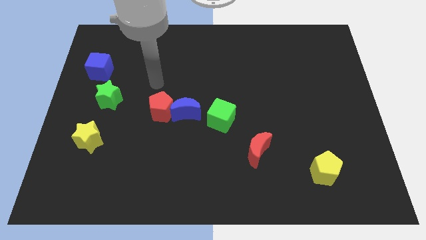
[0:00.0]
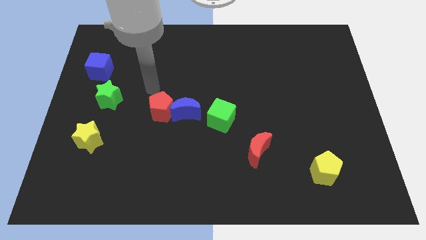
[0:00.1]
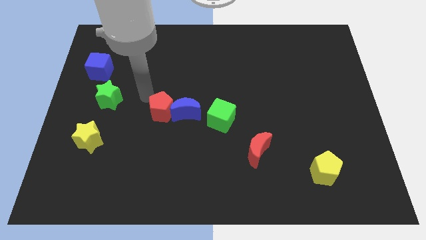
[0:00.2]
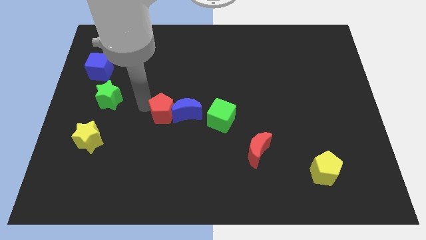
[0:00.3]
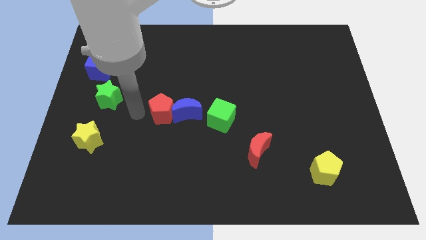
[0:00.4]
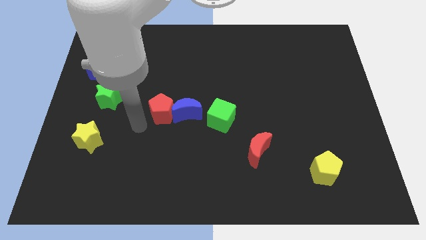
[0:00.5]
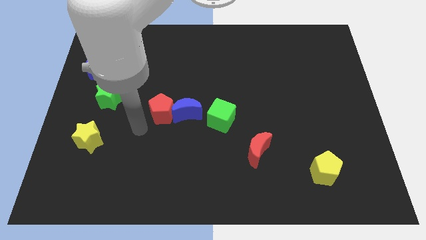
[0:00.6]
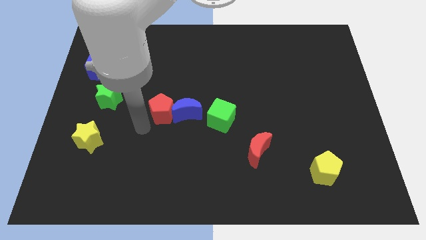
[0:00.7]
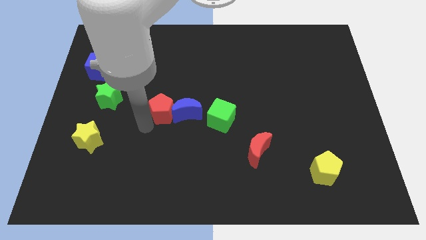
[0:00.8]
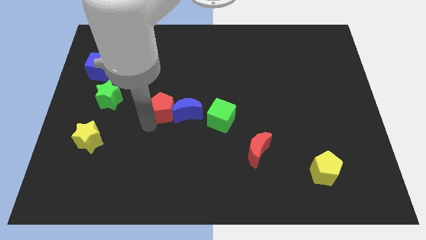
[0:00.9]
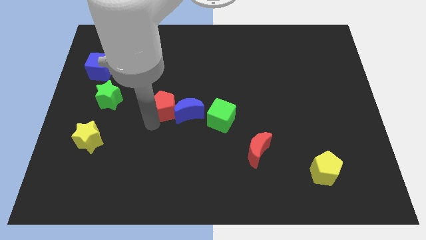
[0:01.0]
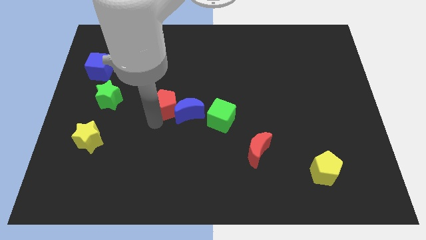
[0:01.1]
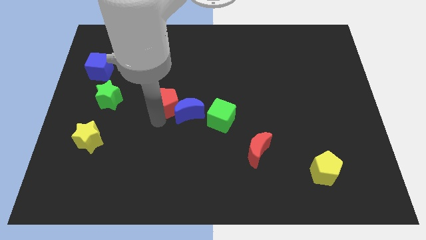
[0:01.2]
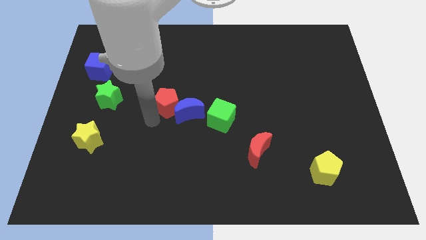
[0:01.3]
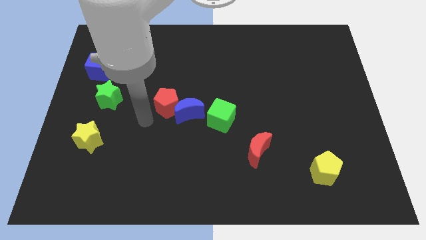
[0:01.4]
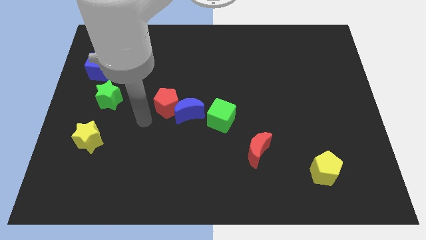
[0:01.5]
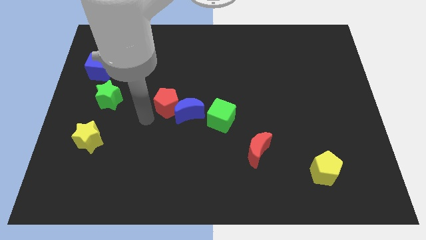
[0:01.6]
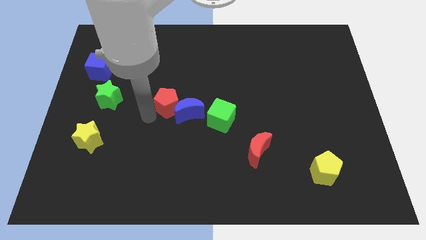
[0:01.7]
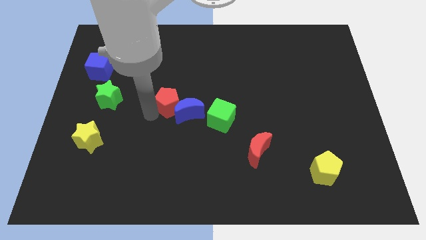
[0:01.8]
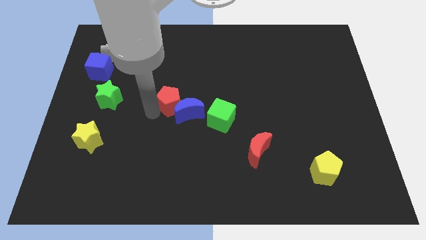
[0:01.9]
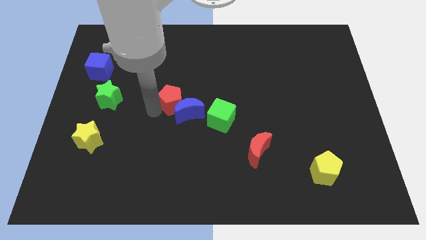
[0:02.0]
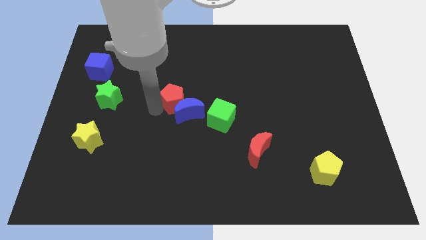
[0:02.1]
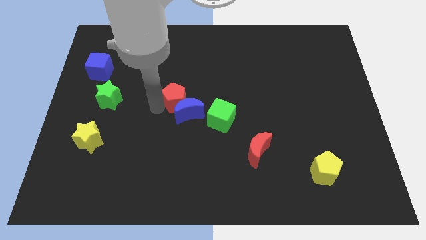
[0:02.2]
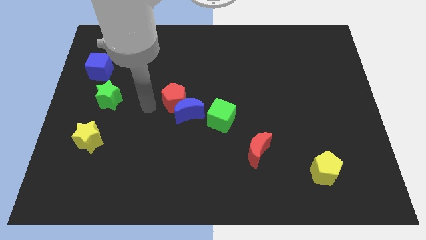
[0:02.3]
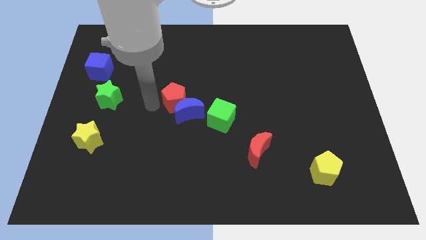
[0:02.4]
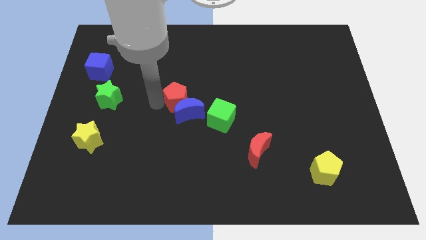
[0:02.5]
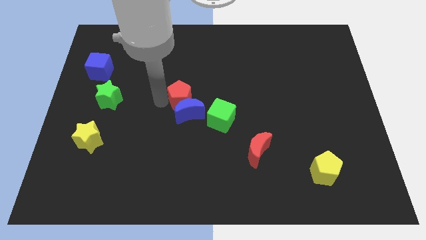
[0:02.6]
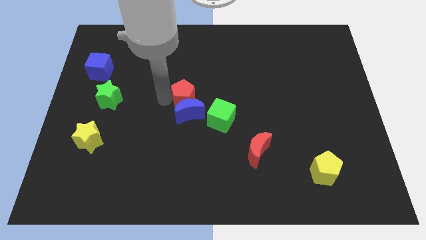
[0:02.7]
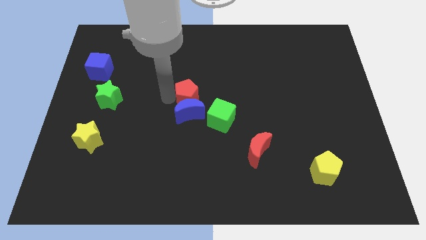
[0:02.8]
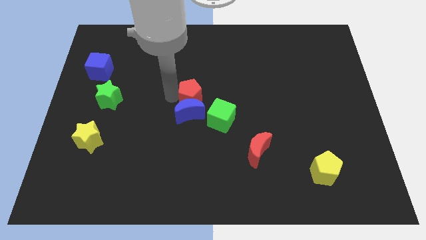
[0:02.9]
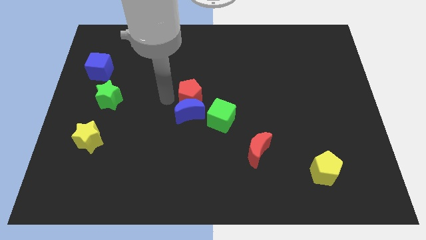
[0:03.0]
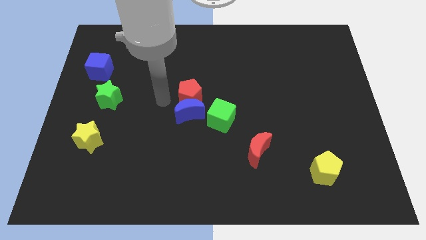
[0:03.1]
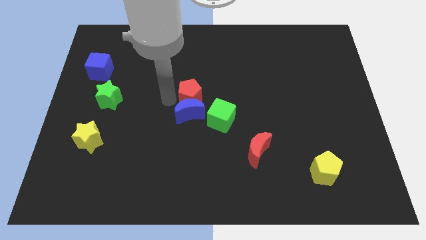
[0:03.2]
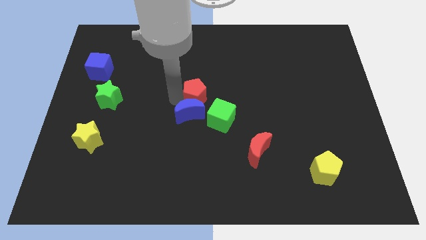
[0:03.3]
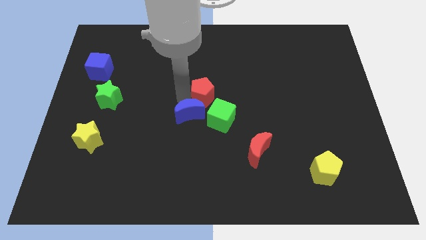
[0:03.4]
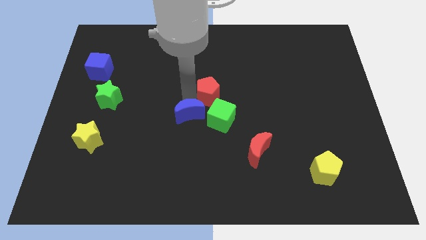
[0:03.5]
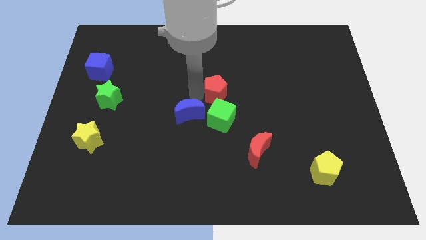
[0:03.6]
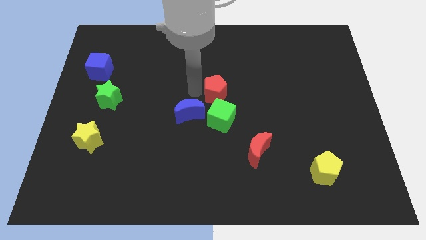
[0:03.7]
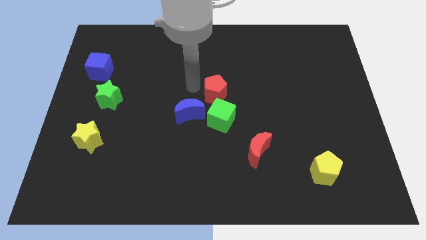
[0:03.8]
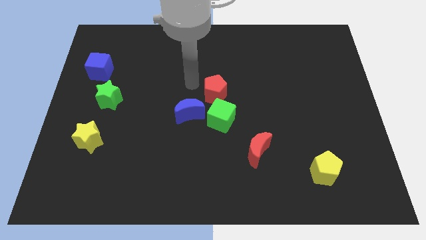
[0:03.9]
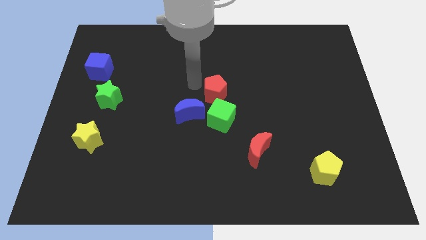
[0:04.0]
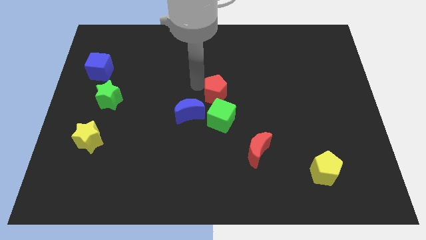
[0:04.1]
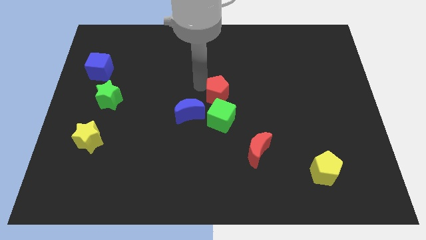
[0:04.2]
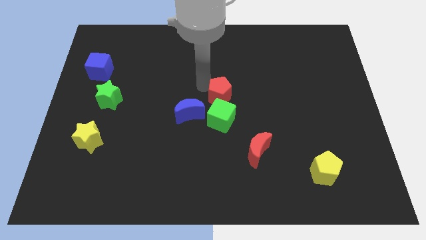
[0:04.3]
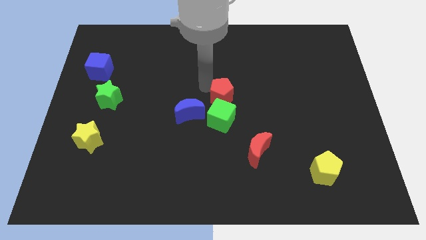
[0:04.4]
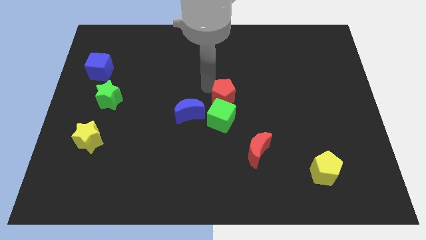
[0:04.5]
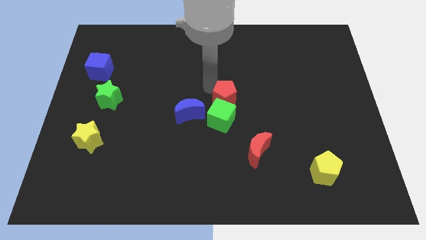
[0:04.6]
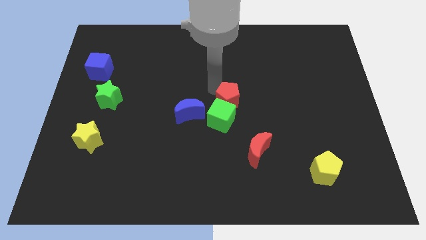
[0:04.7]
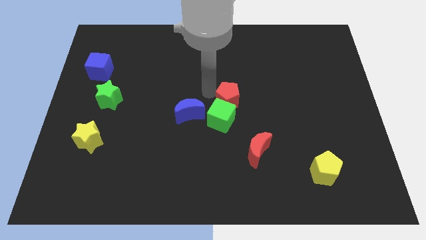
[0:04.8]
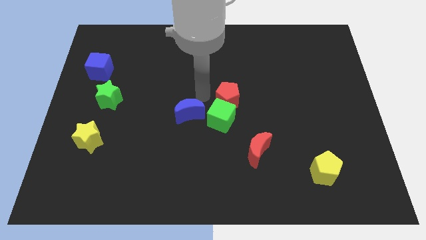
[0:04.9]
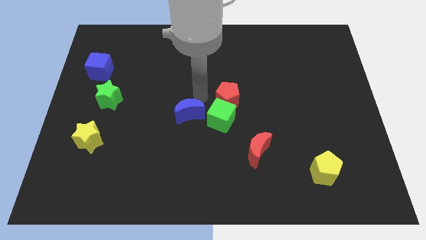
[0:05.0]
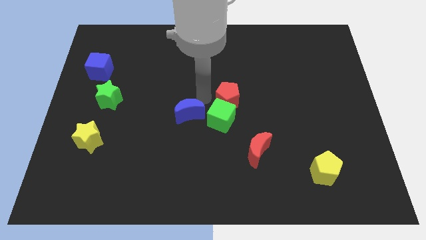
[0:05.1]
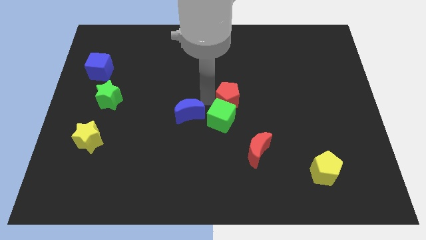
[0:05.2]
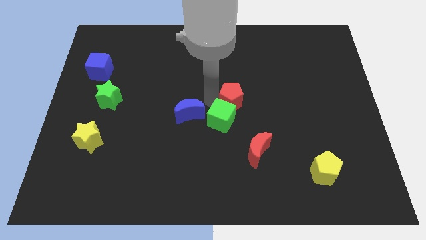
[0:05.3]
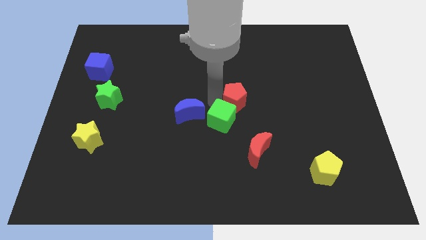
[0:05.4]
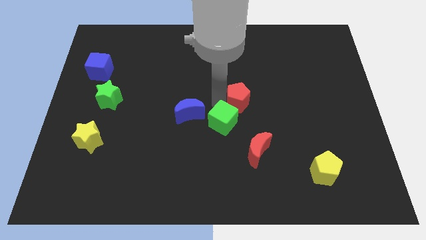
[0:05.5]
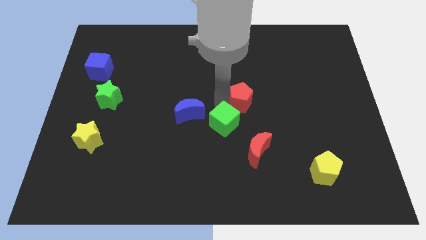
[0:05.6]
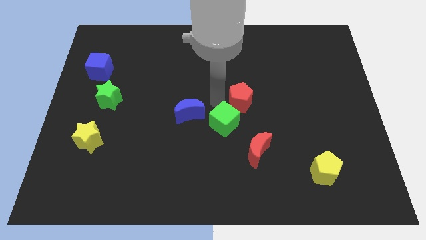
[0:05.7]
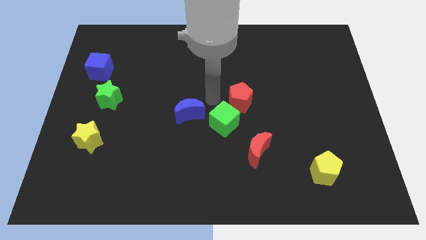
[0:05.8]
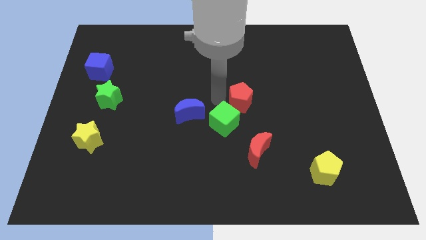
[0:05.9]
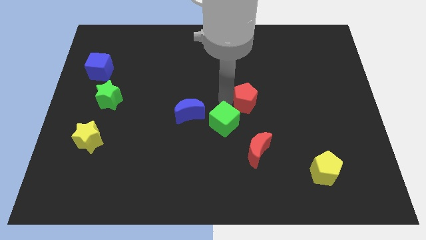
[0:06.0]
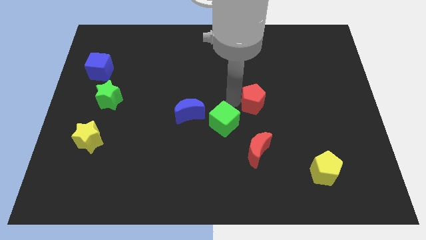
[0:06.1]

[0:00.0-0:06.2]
move the red pentagon to the right

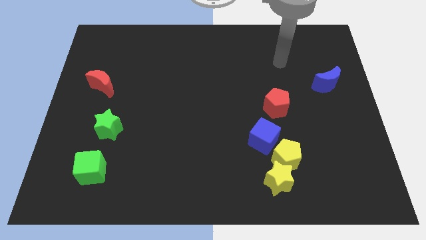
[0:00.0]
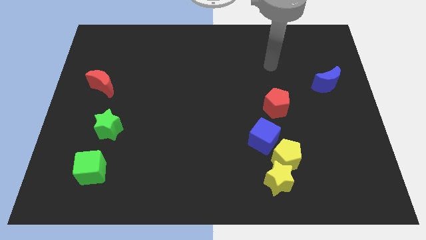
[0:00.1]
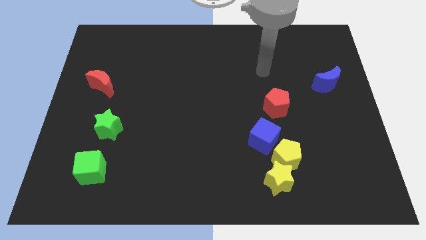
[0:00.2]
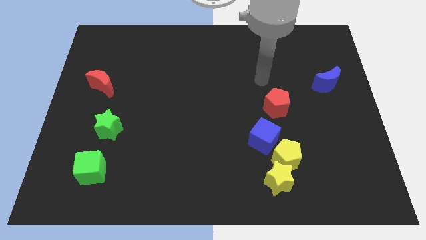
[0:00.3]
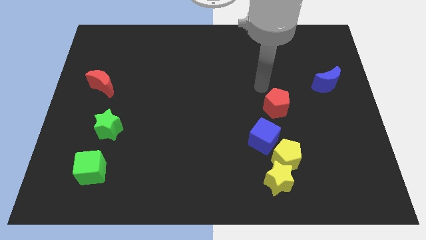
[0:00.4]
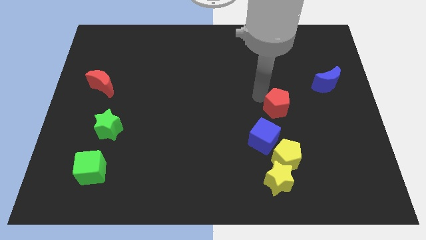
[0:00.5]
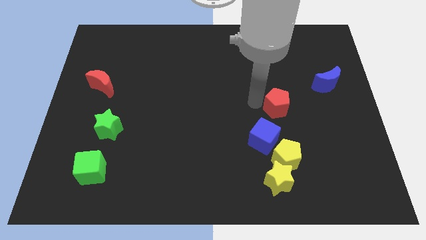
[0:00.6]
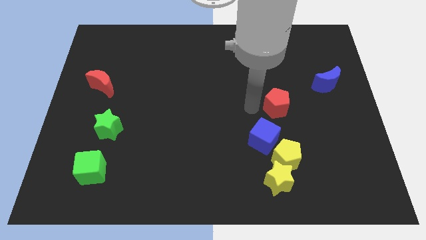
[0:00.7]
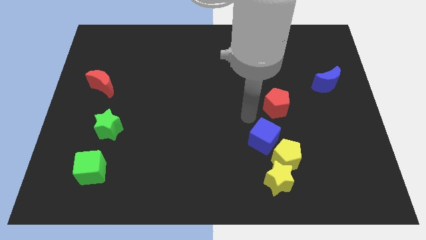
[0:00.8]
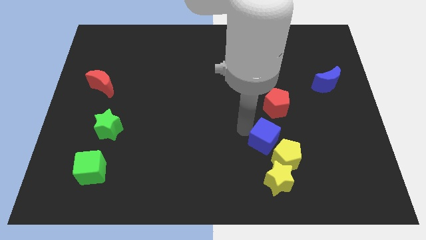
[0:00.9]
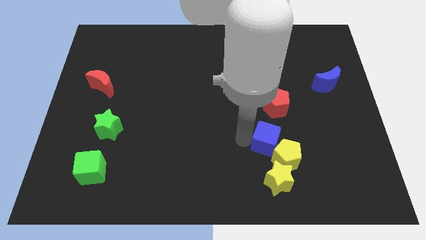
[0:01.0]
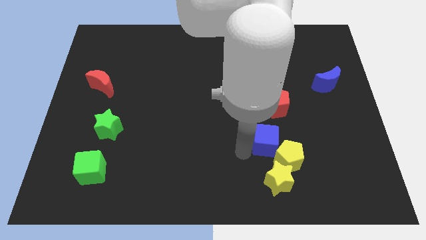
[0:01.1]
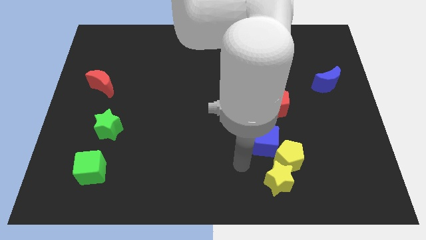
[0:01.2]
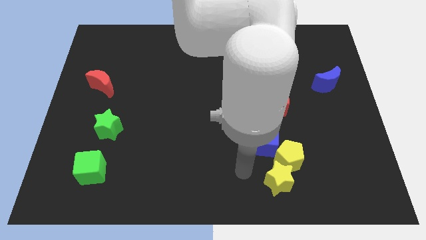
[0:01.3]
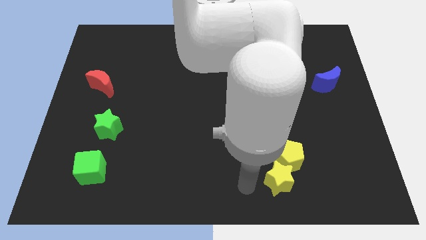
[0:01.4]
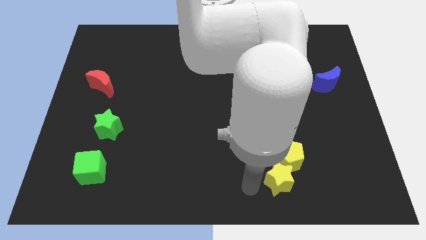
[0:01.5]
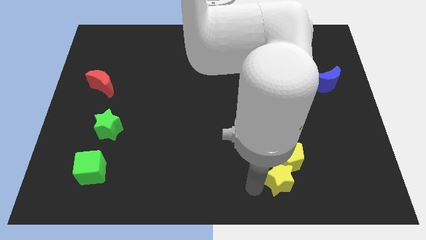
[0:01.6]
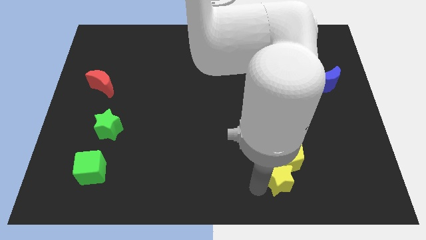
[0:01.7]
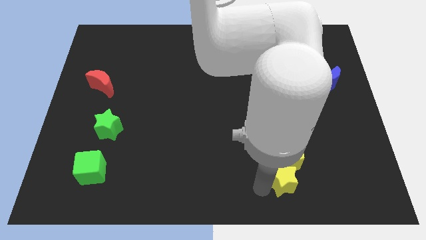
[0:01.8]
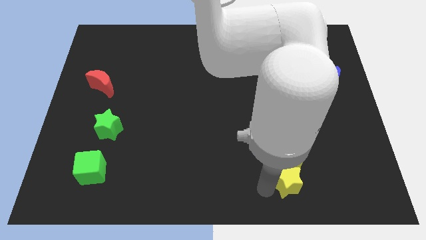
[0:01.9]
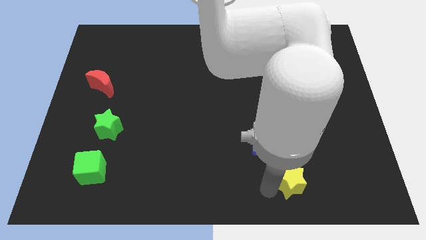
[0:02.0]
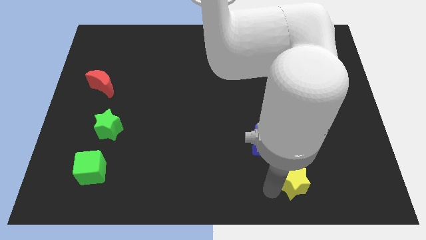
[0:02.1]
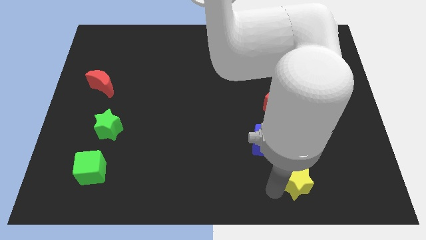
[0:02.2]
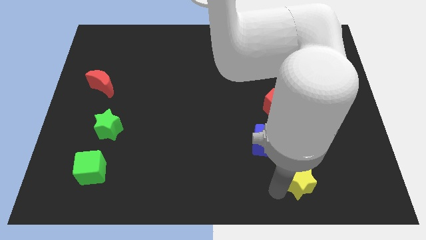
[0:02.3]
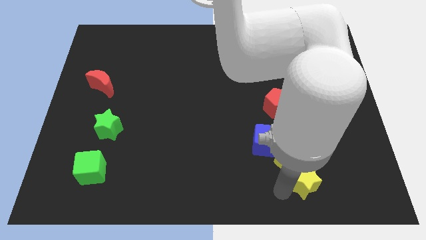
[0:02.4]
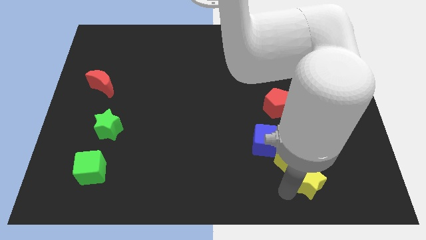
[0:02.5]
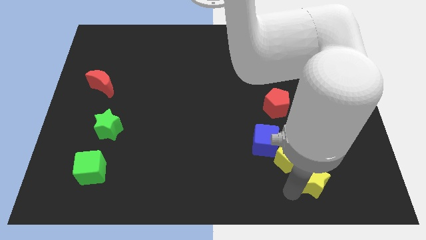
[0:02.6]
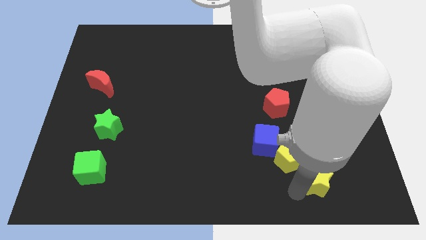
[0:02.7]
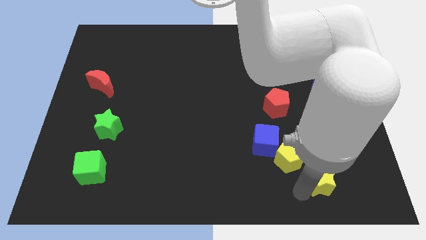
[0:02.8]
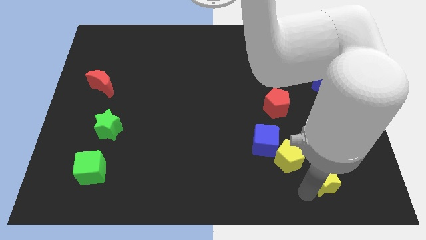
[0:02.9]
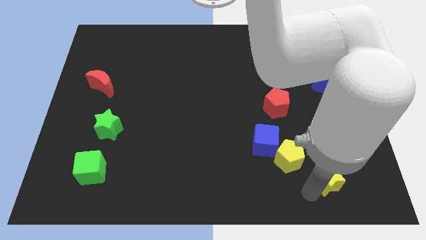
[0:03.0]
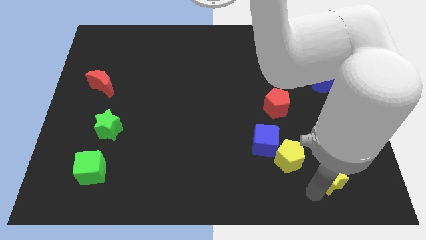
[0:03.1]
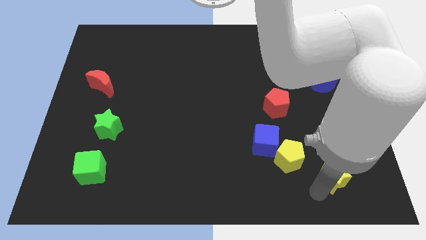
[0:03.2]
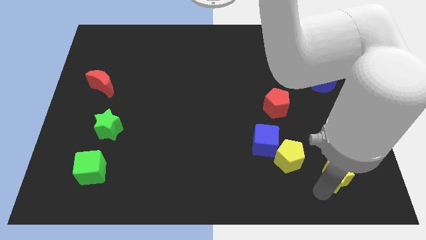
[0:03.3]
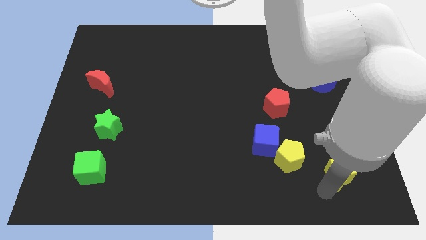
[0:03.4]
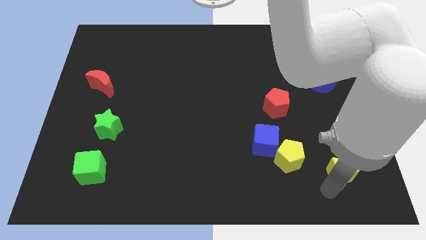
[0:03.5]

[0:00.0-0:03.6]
push the yellow star upwards and to the right diagonally slightly
